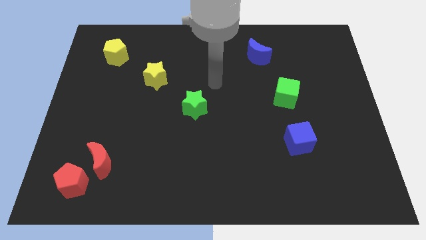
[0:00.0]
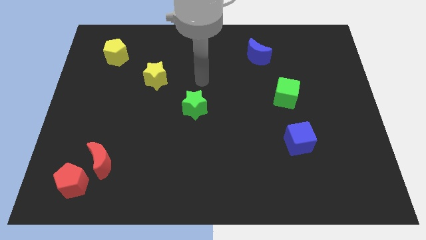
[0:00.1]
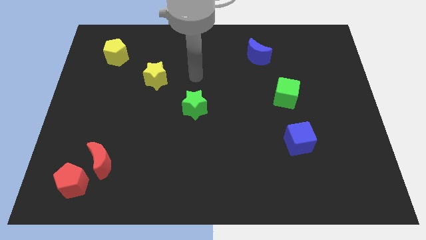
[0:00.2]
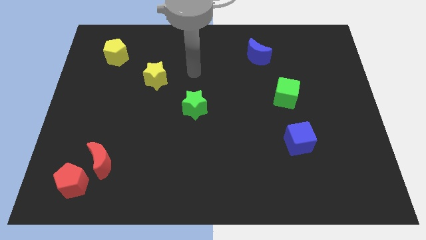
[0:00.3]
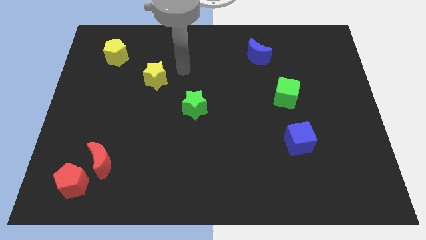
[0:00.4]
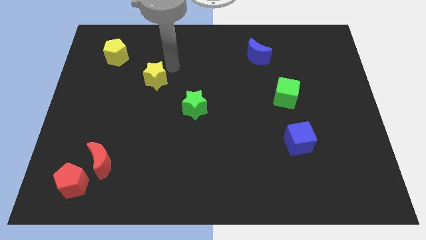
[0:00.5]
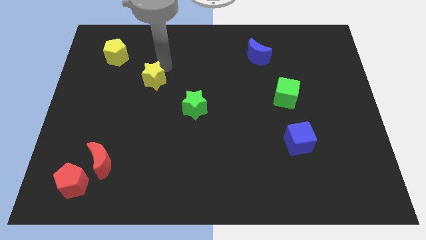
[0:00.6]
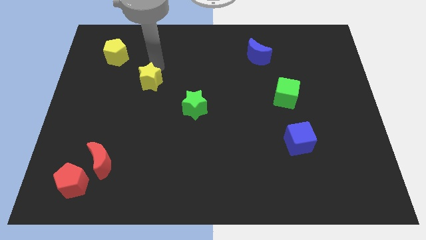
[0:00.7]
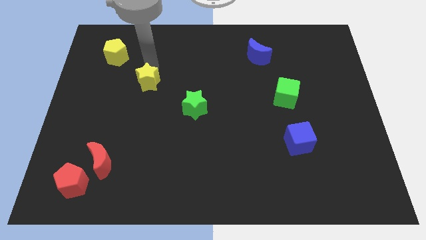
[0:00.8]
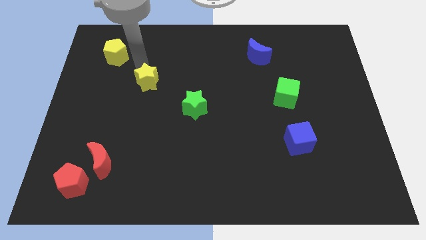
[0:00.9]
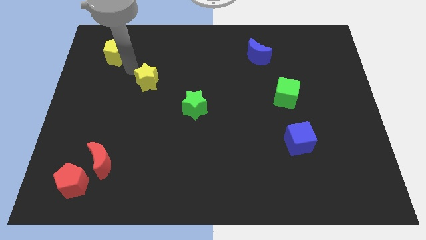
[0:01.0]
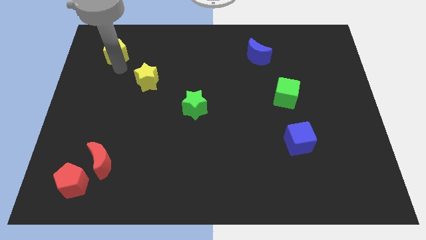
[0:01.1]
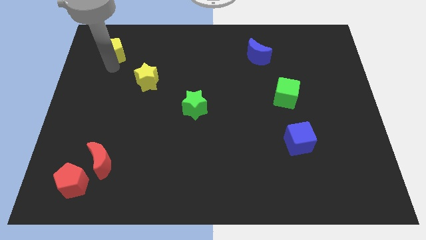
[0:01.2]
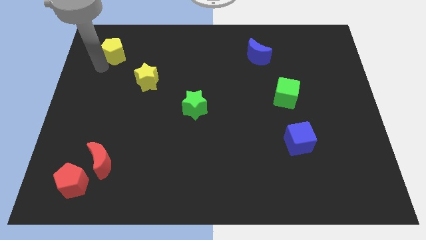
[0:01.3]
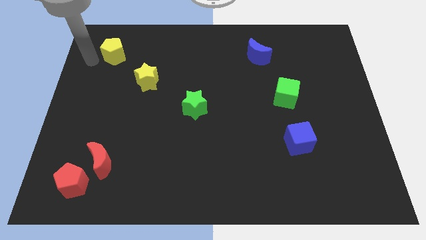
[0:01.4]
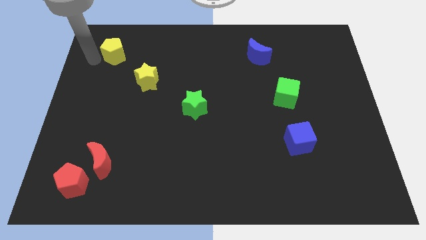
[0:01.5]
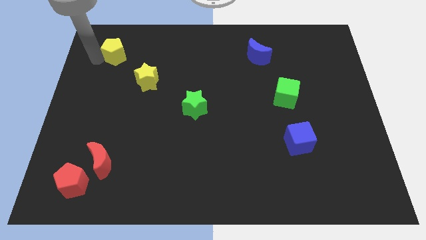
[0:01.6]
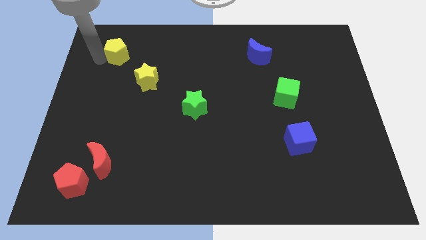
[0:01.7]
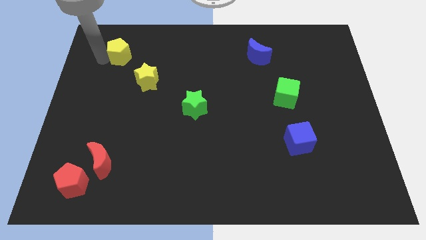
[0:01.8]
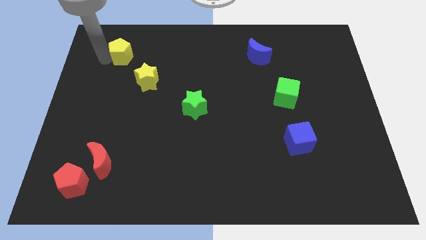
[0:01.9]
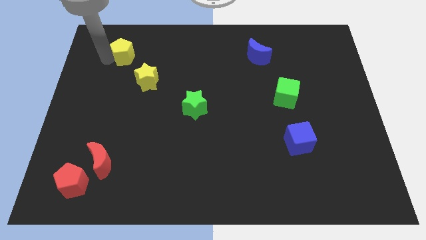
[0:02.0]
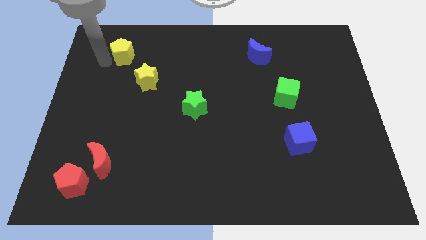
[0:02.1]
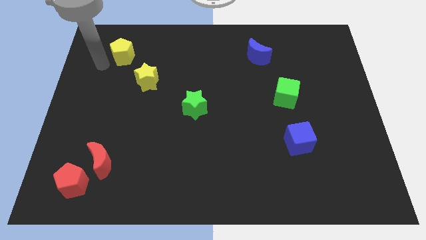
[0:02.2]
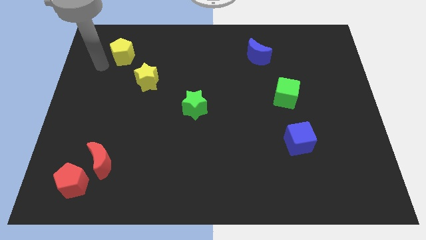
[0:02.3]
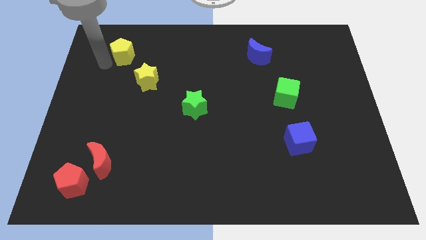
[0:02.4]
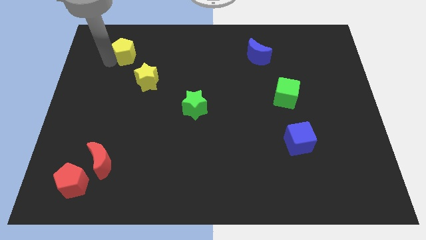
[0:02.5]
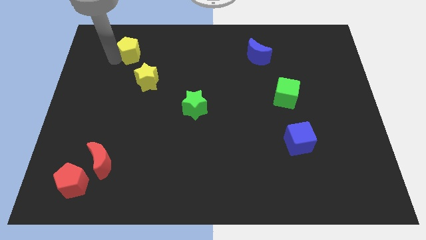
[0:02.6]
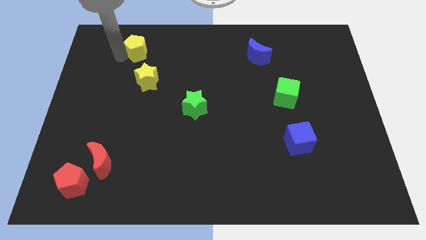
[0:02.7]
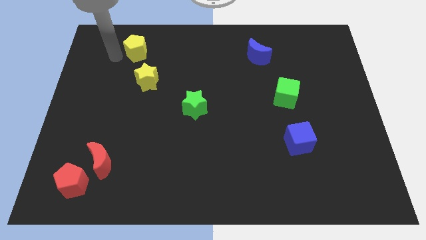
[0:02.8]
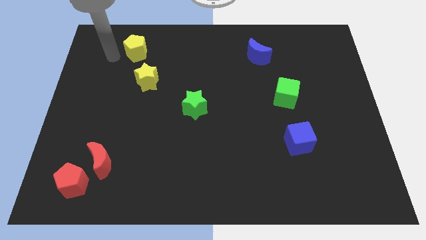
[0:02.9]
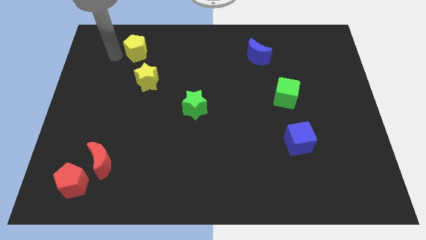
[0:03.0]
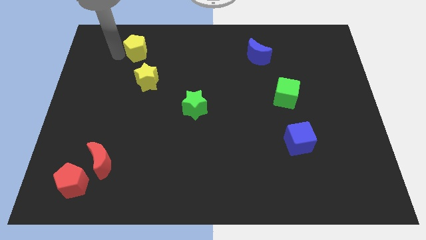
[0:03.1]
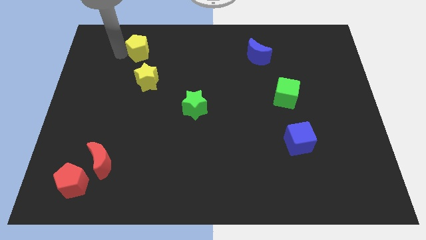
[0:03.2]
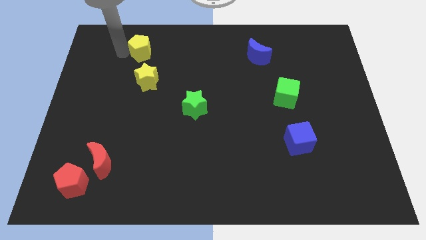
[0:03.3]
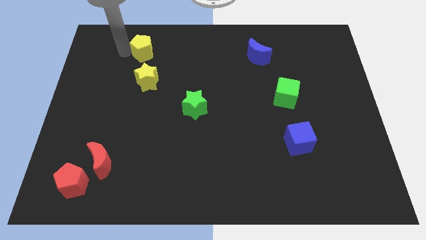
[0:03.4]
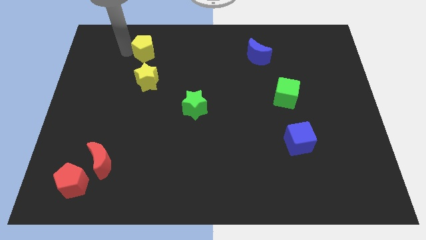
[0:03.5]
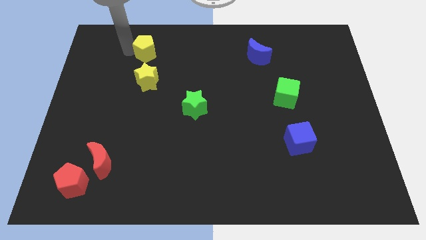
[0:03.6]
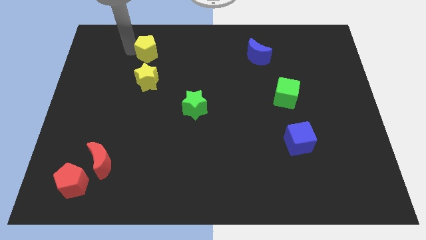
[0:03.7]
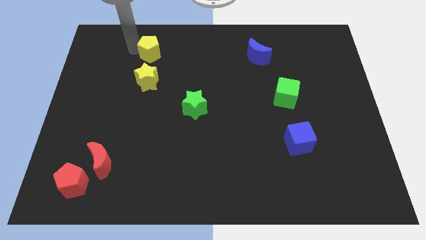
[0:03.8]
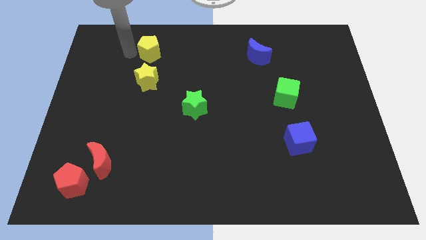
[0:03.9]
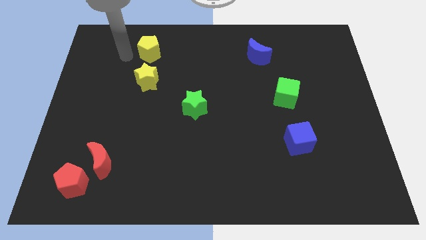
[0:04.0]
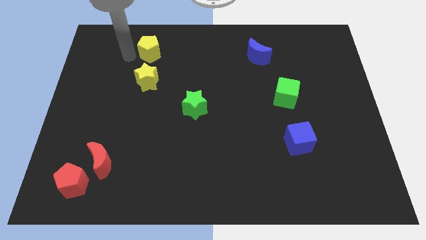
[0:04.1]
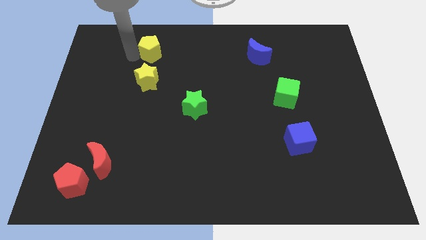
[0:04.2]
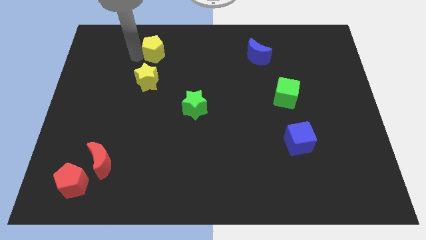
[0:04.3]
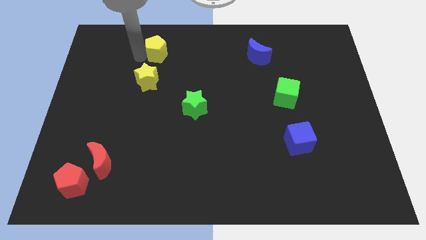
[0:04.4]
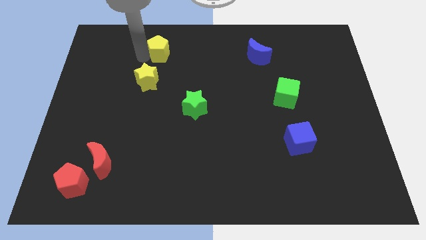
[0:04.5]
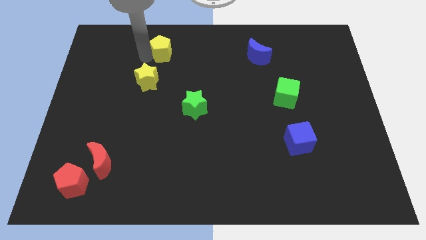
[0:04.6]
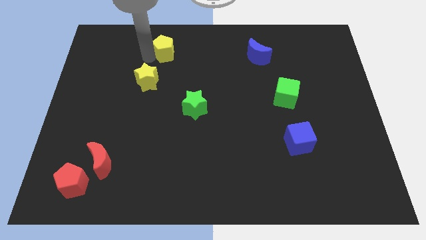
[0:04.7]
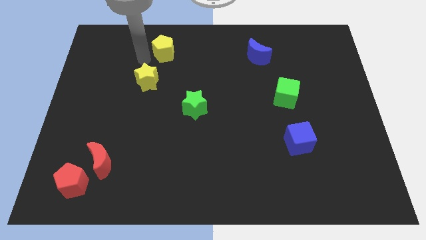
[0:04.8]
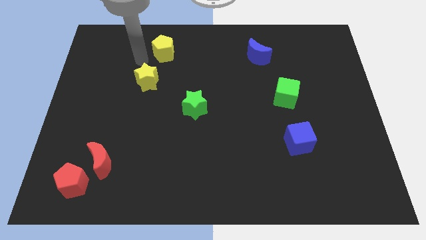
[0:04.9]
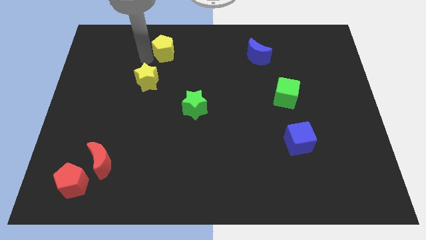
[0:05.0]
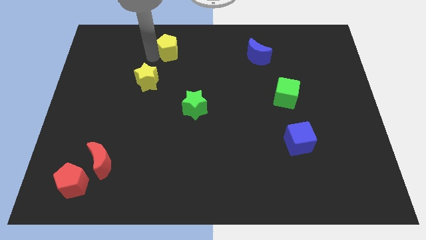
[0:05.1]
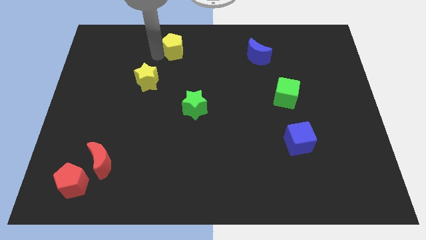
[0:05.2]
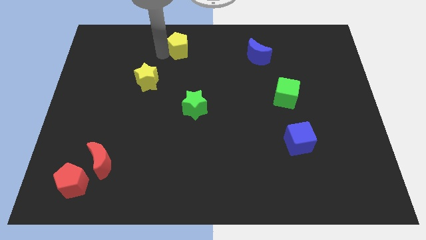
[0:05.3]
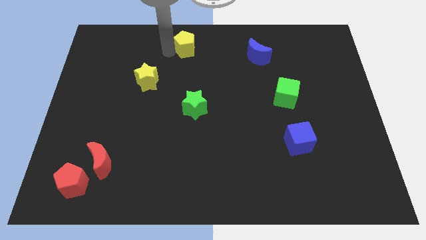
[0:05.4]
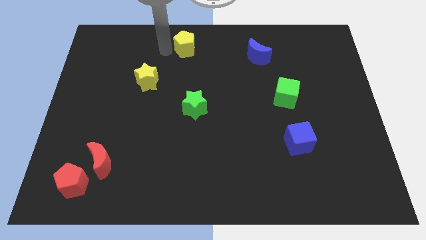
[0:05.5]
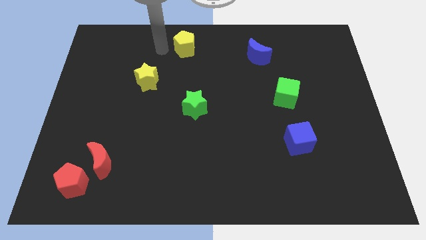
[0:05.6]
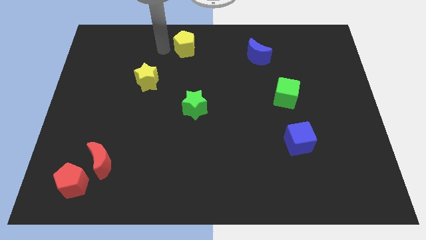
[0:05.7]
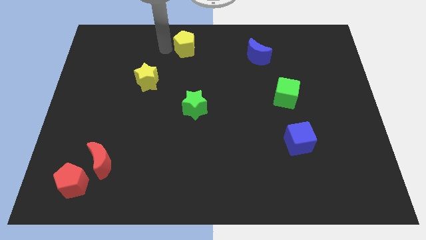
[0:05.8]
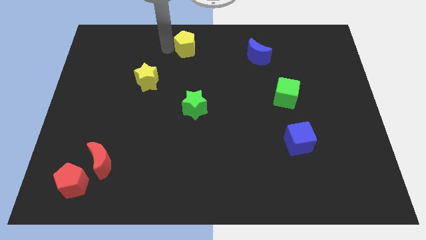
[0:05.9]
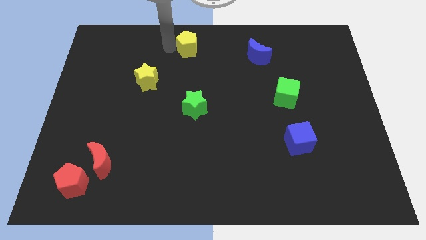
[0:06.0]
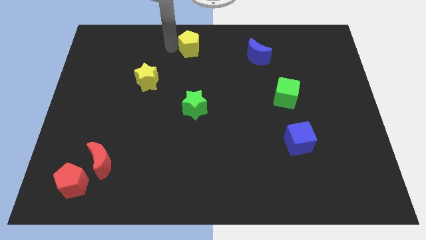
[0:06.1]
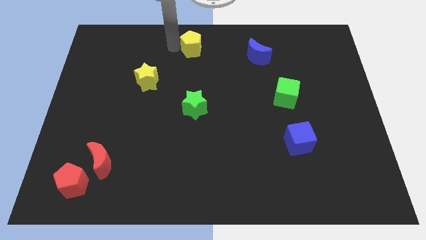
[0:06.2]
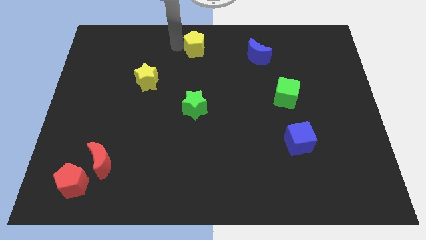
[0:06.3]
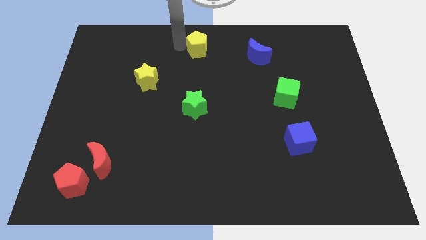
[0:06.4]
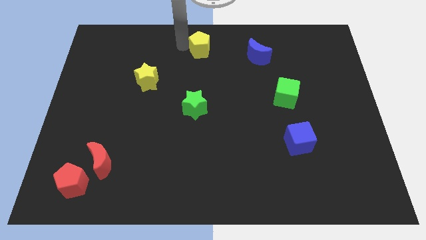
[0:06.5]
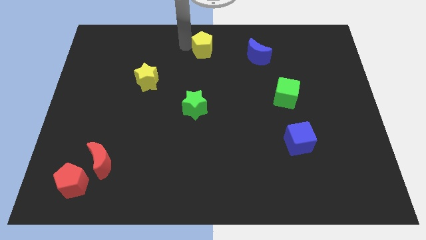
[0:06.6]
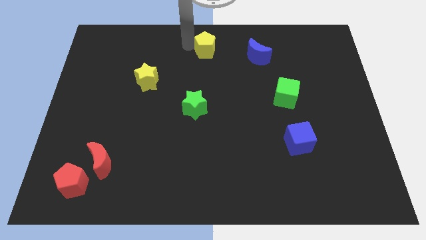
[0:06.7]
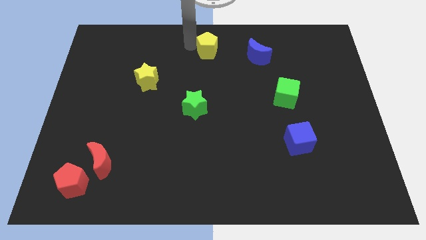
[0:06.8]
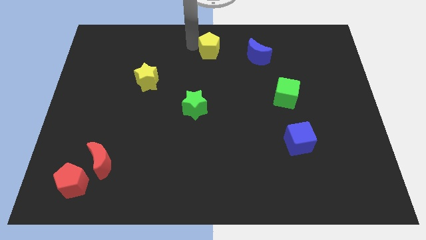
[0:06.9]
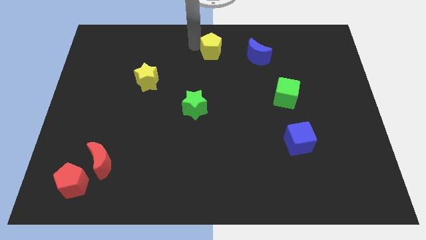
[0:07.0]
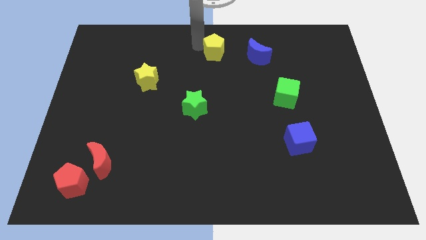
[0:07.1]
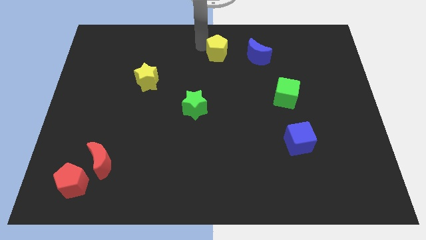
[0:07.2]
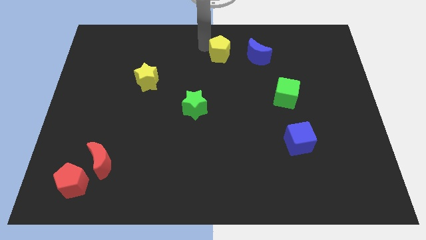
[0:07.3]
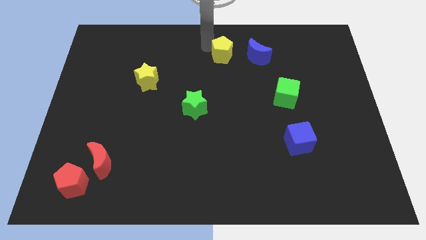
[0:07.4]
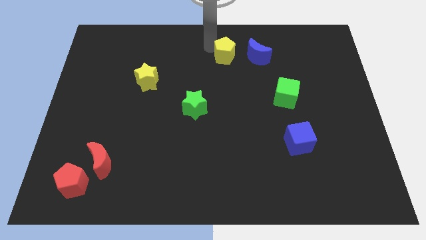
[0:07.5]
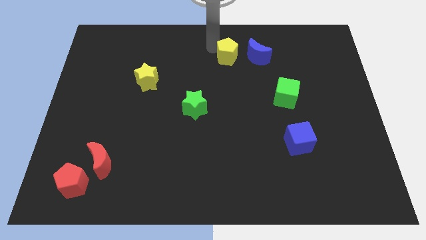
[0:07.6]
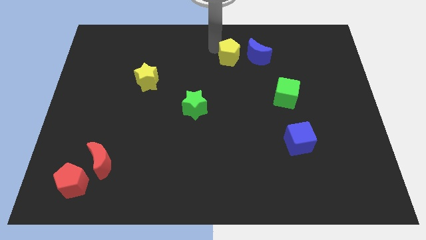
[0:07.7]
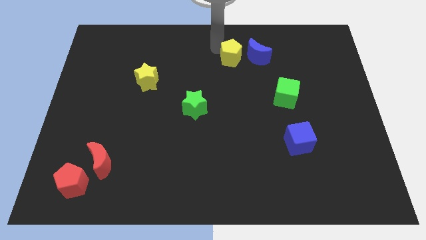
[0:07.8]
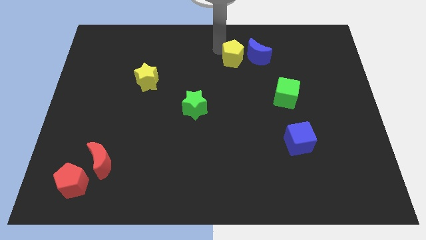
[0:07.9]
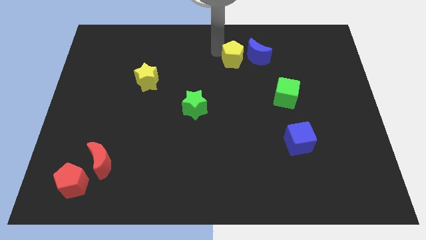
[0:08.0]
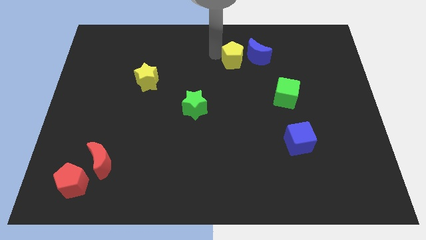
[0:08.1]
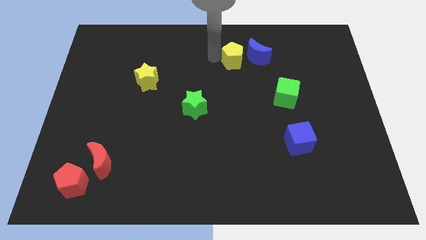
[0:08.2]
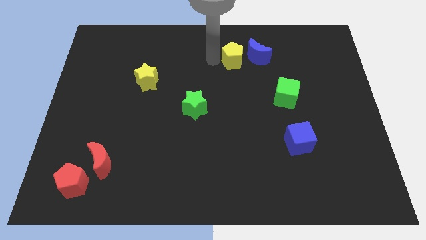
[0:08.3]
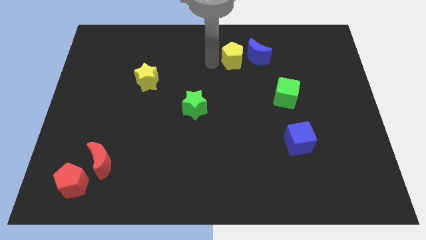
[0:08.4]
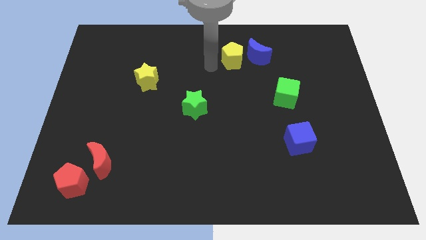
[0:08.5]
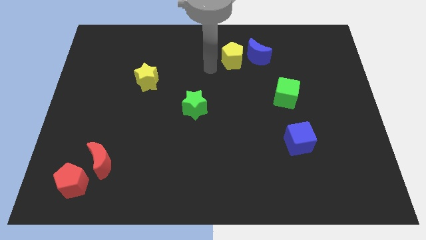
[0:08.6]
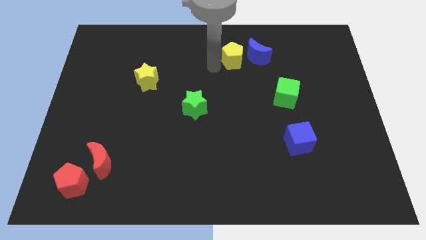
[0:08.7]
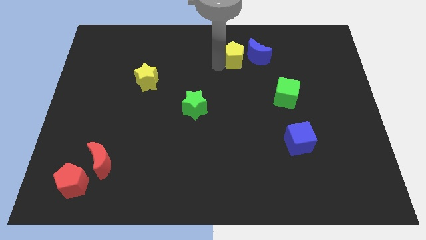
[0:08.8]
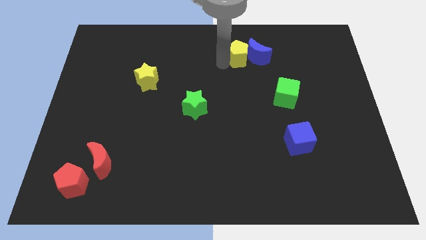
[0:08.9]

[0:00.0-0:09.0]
push the yellow pentagon to the blue moon
